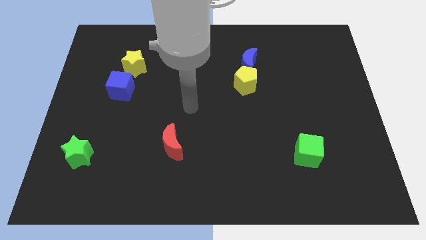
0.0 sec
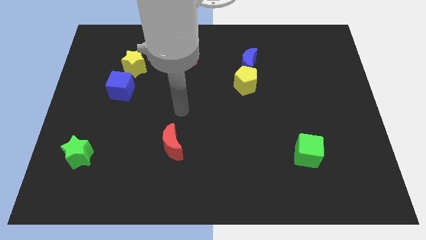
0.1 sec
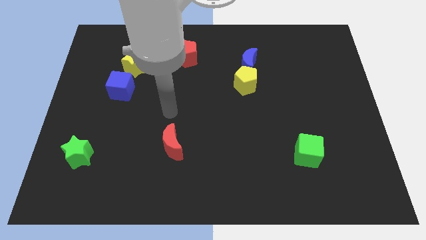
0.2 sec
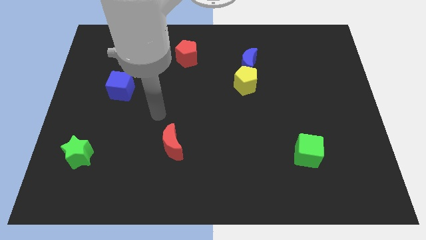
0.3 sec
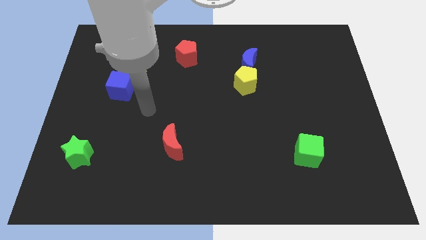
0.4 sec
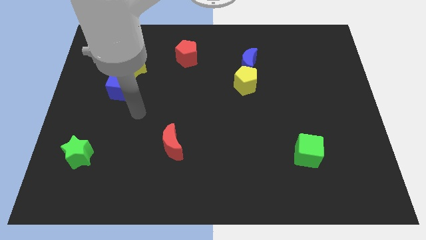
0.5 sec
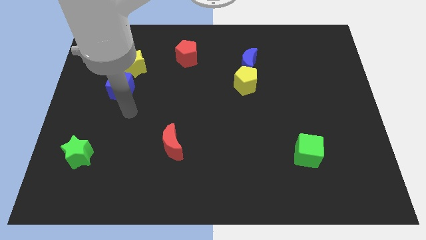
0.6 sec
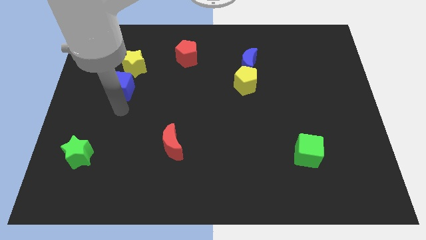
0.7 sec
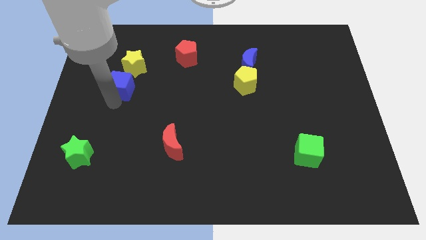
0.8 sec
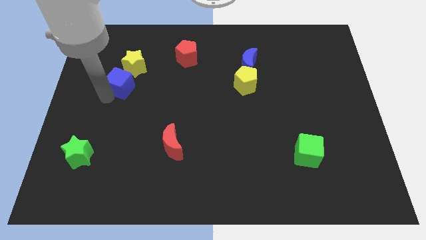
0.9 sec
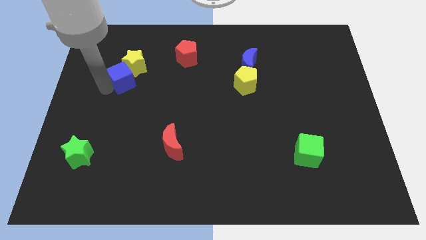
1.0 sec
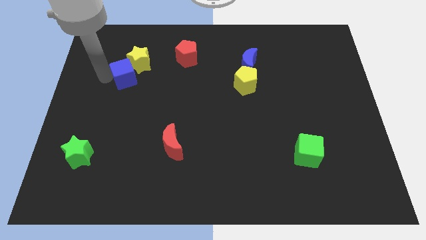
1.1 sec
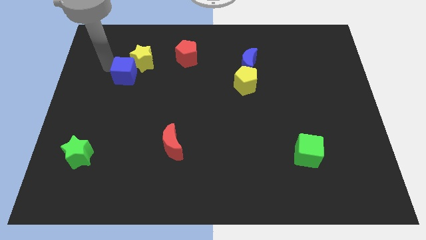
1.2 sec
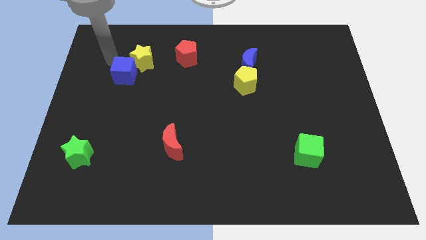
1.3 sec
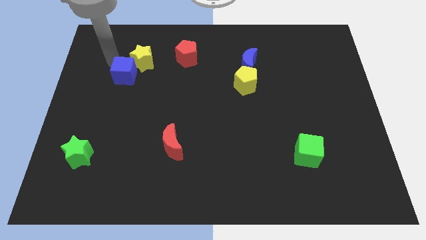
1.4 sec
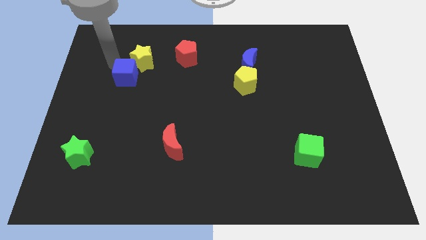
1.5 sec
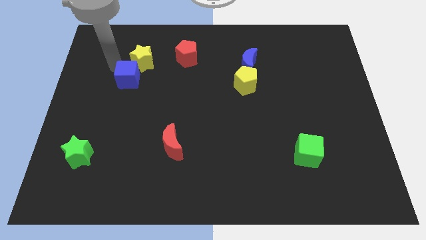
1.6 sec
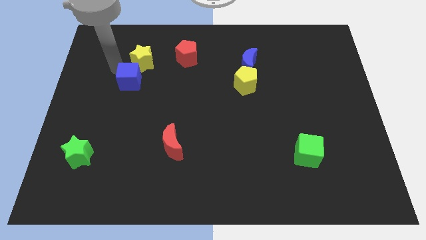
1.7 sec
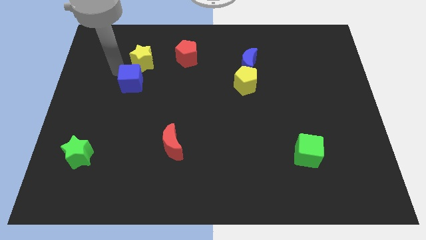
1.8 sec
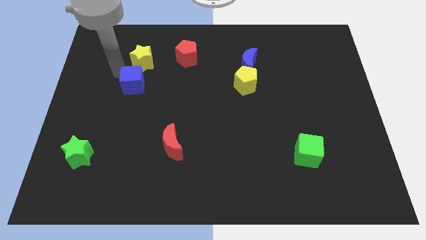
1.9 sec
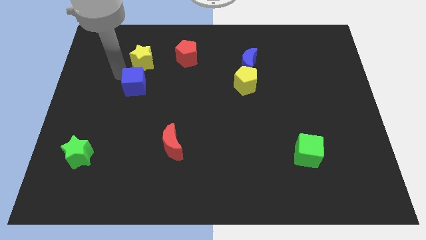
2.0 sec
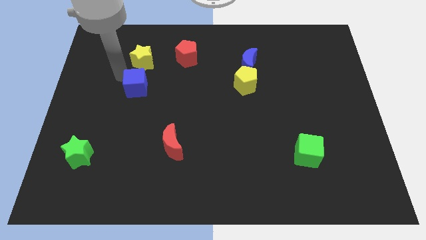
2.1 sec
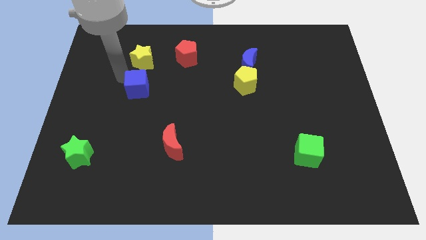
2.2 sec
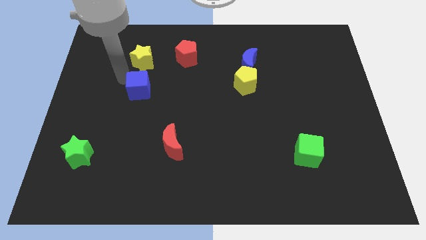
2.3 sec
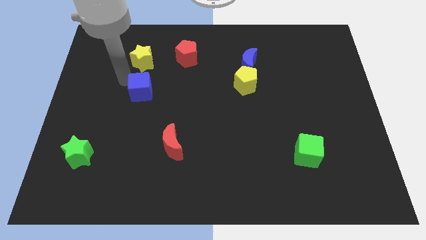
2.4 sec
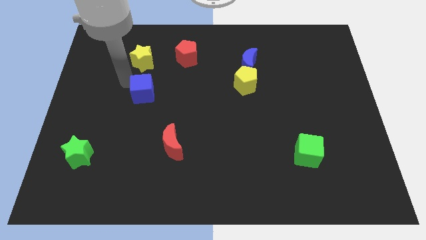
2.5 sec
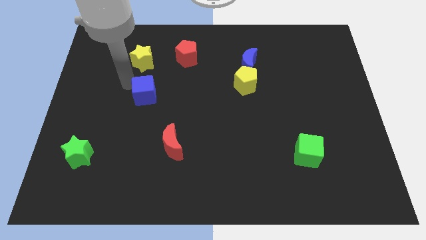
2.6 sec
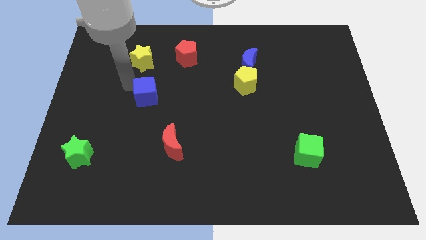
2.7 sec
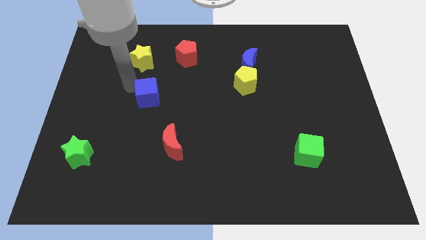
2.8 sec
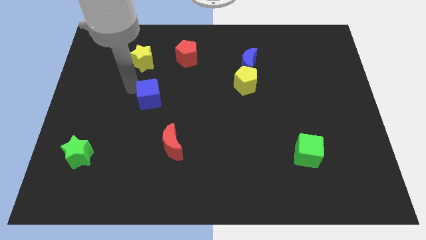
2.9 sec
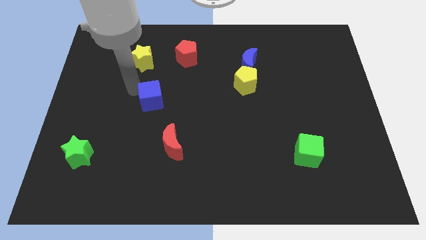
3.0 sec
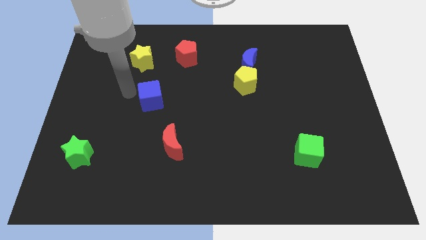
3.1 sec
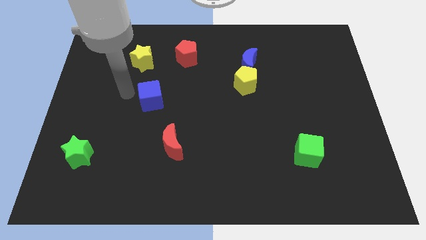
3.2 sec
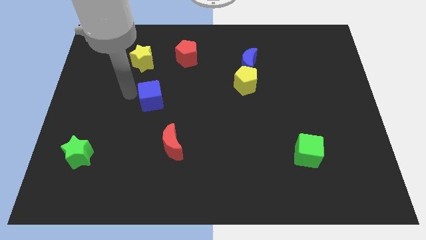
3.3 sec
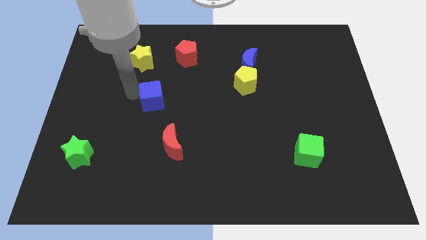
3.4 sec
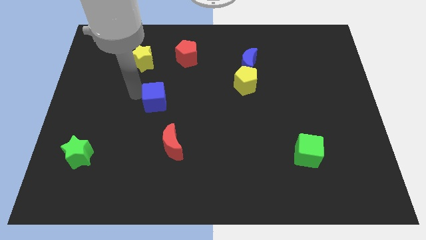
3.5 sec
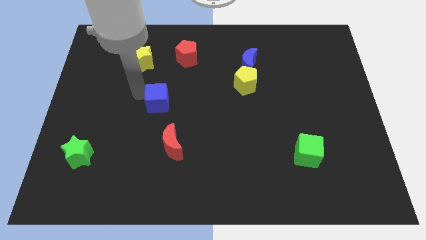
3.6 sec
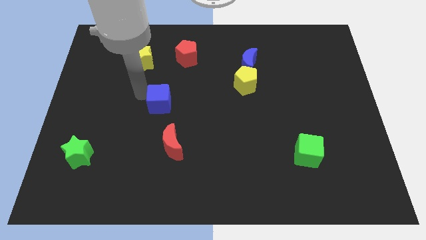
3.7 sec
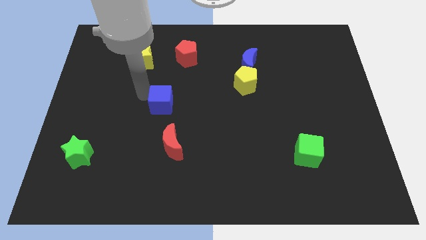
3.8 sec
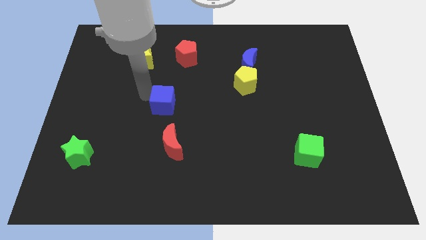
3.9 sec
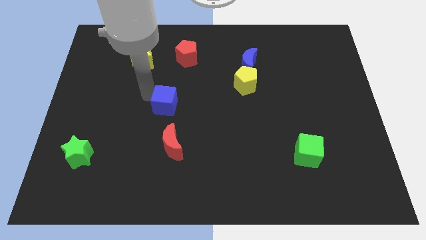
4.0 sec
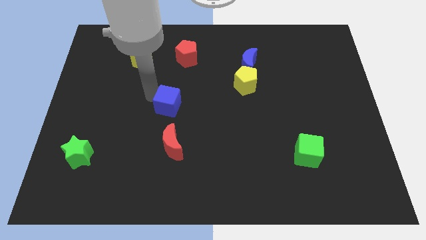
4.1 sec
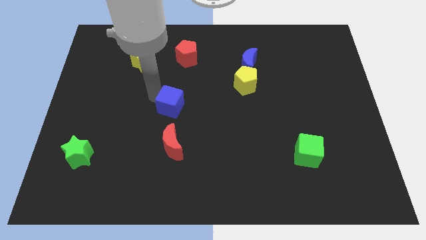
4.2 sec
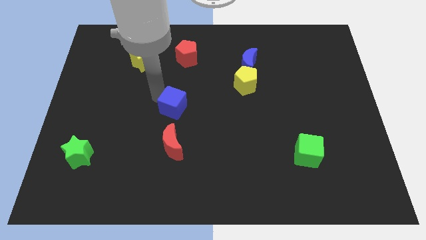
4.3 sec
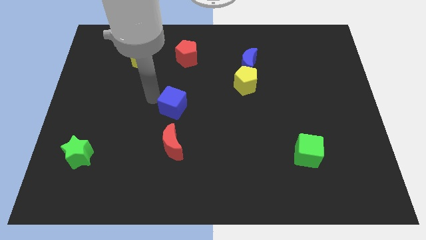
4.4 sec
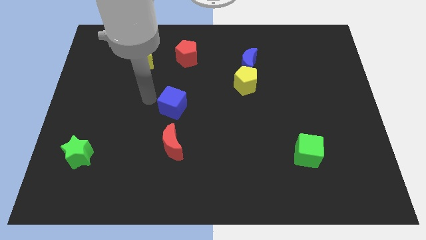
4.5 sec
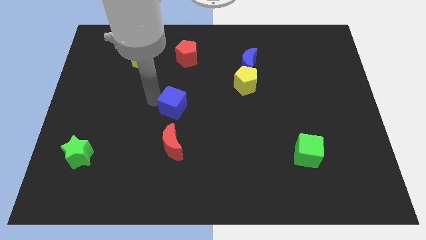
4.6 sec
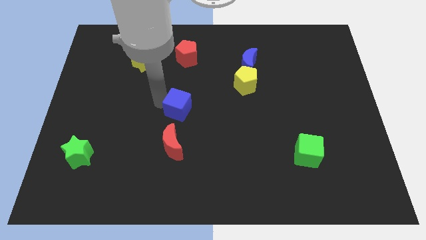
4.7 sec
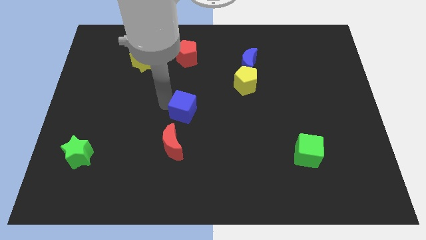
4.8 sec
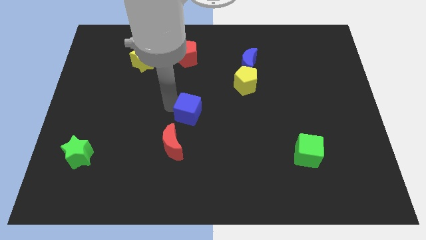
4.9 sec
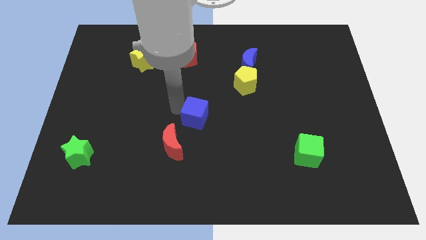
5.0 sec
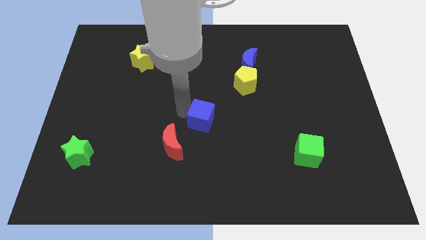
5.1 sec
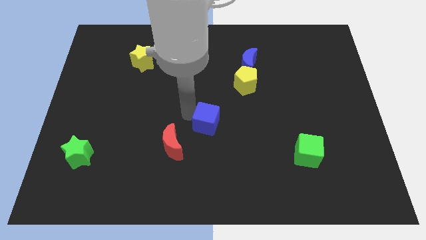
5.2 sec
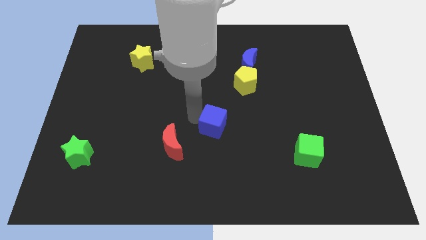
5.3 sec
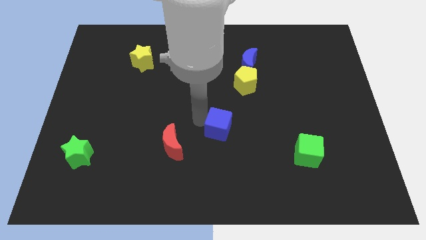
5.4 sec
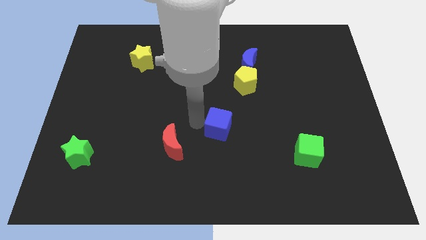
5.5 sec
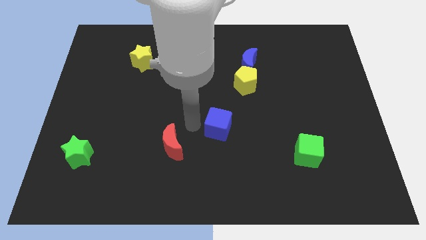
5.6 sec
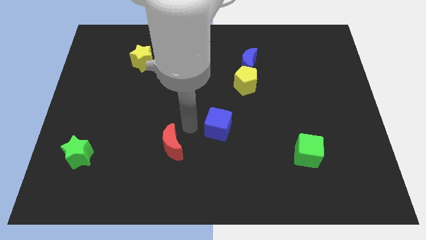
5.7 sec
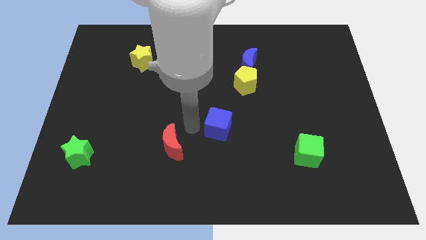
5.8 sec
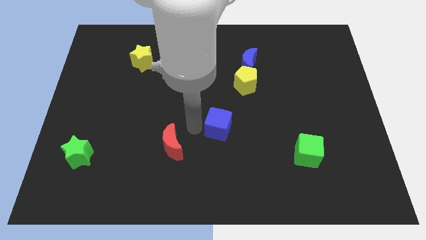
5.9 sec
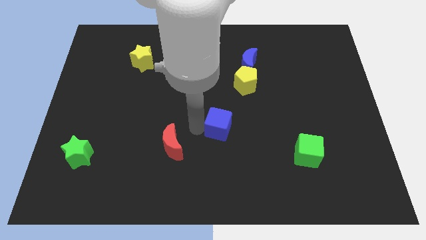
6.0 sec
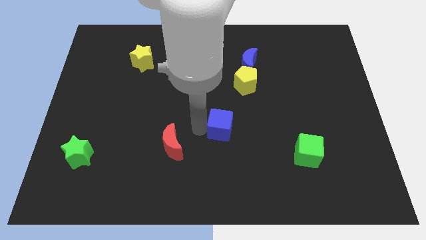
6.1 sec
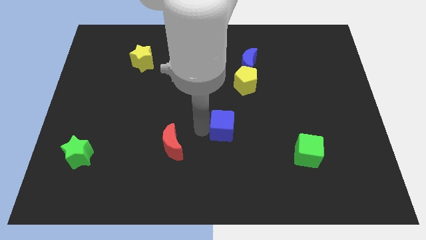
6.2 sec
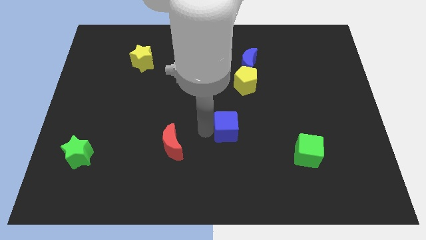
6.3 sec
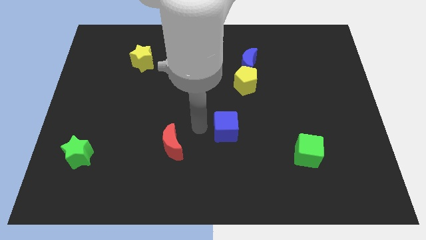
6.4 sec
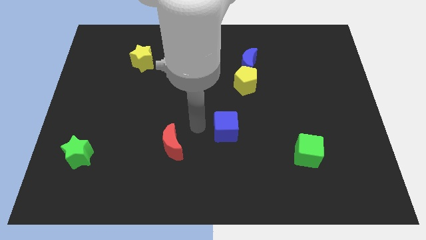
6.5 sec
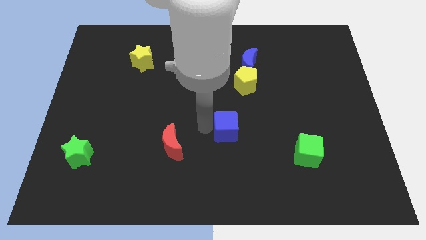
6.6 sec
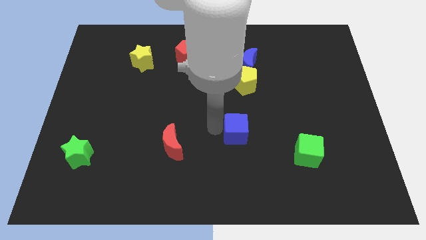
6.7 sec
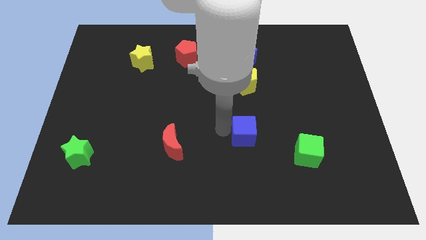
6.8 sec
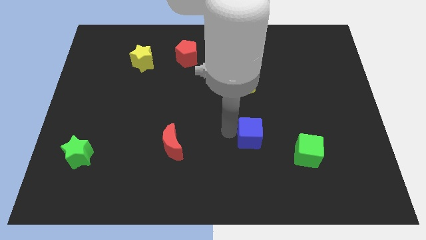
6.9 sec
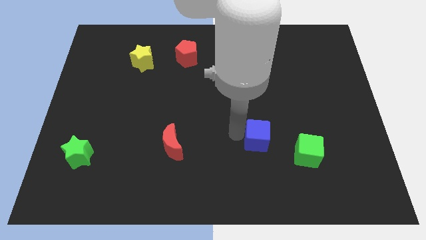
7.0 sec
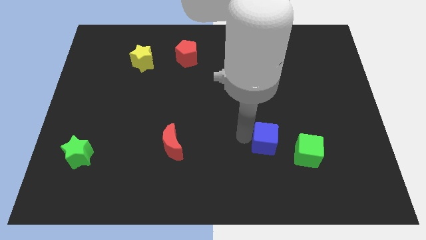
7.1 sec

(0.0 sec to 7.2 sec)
move the blue cube to the top left of the green cube

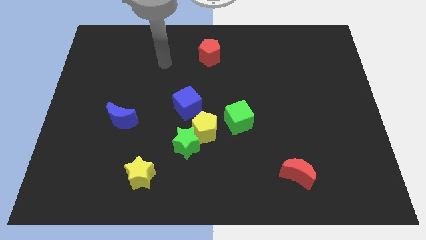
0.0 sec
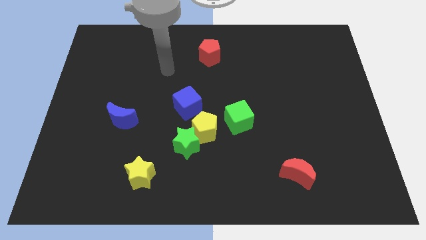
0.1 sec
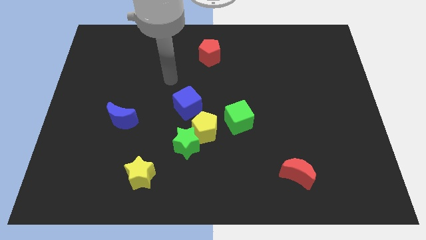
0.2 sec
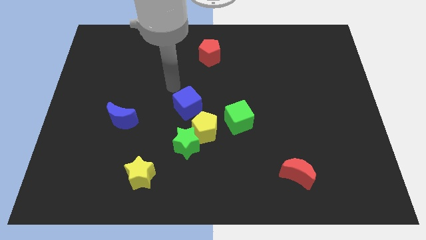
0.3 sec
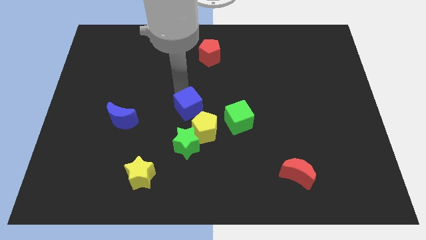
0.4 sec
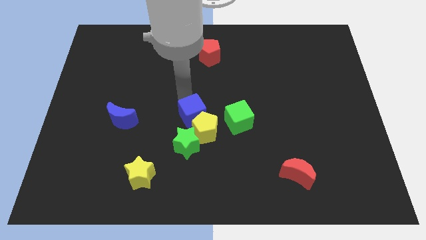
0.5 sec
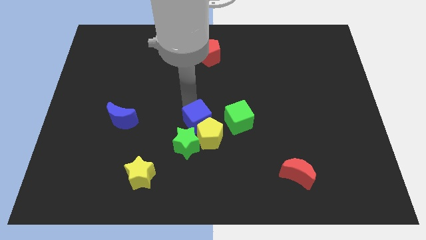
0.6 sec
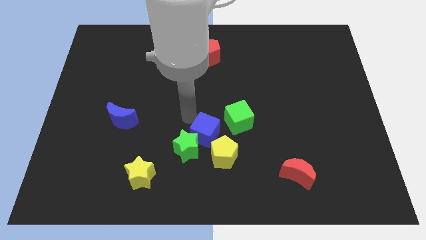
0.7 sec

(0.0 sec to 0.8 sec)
move the yellow pentagon to the bottom side of the green cube
